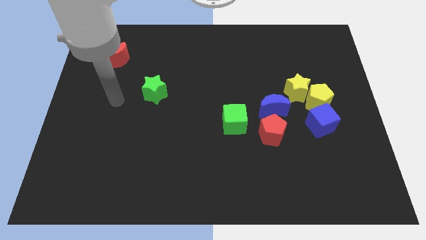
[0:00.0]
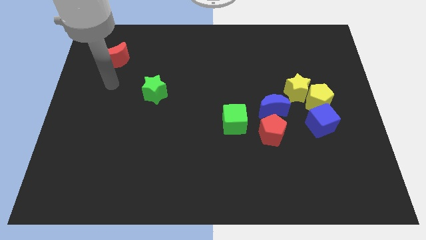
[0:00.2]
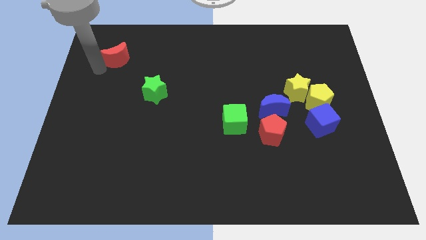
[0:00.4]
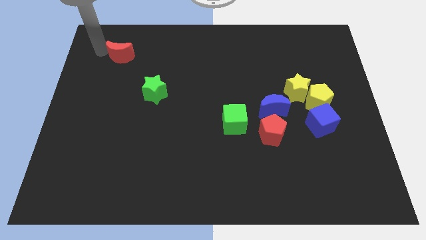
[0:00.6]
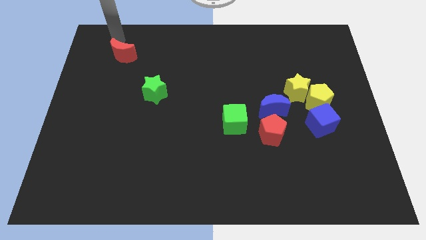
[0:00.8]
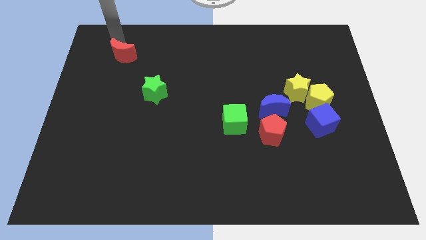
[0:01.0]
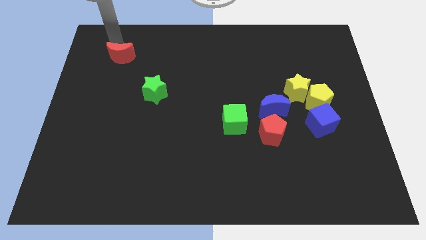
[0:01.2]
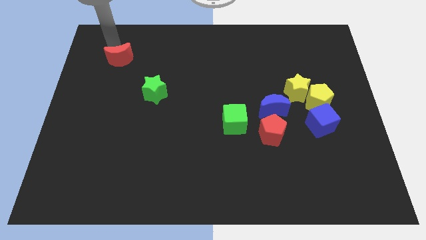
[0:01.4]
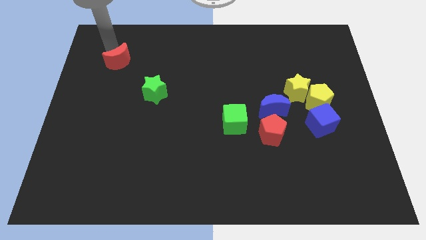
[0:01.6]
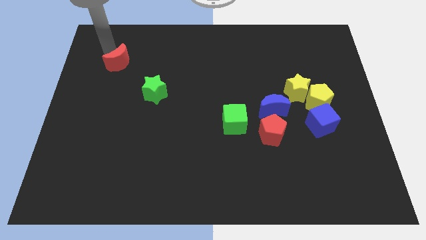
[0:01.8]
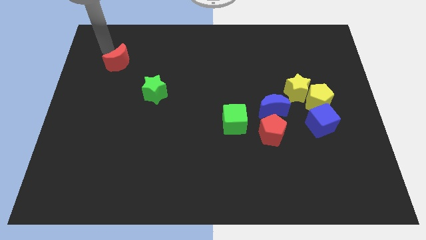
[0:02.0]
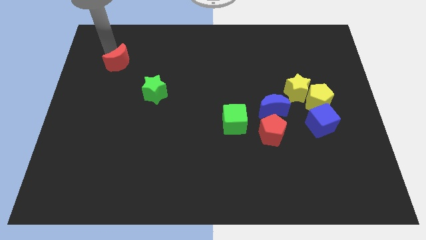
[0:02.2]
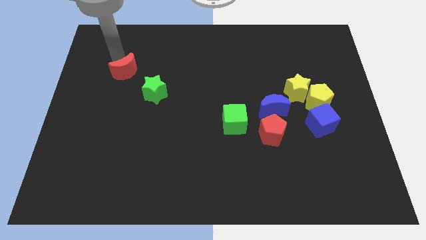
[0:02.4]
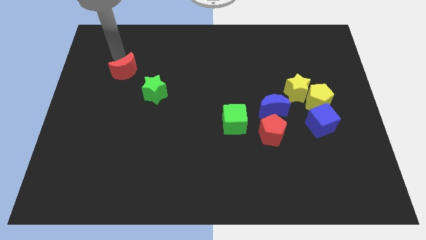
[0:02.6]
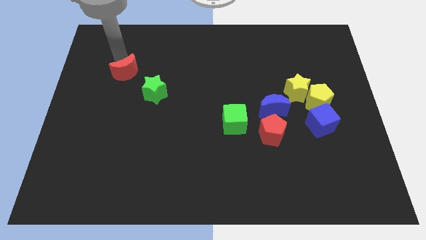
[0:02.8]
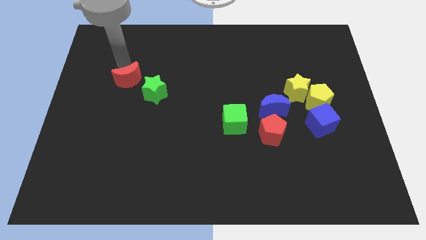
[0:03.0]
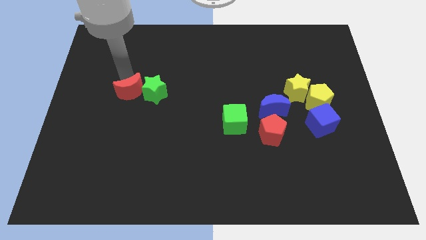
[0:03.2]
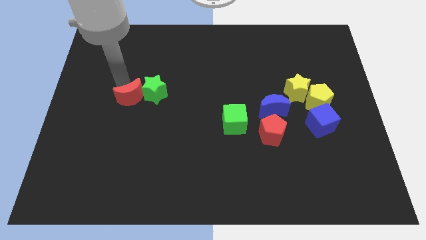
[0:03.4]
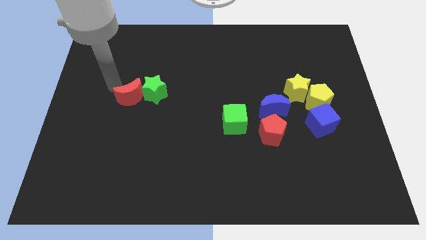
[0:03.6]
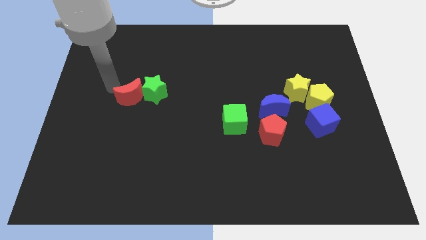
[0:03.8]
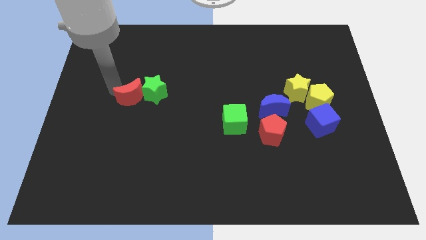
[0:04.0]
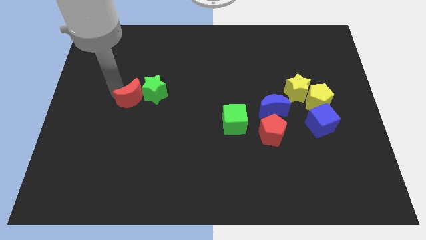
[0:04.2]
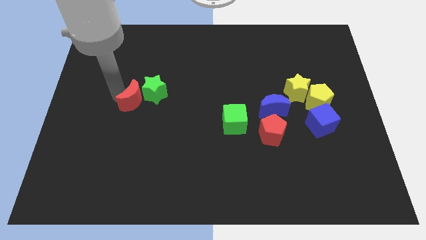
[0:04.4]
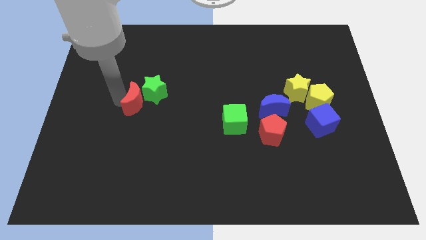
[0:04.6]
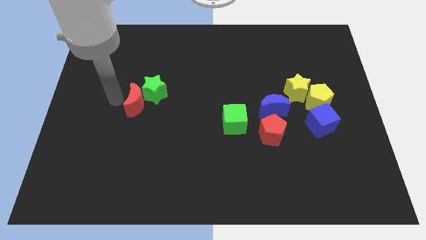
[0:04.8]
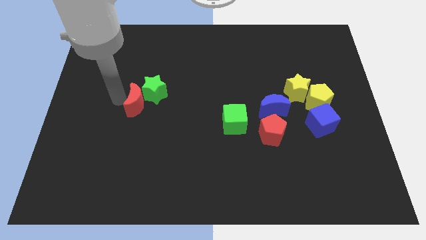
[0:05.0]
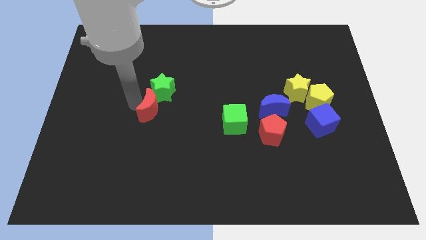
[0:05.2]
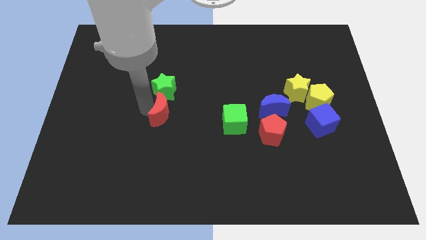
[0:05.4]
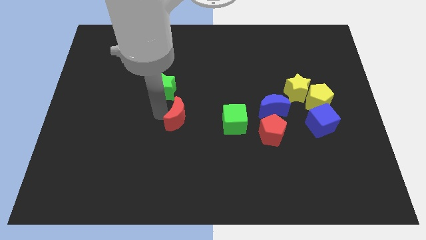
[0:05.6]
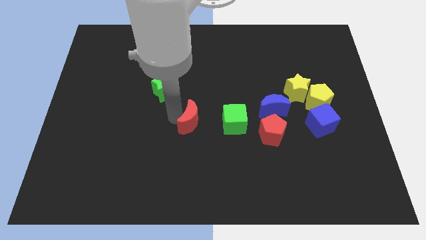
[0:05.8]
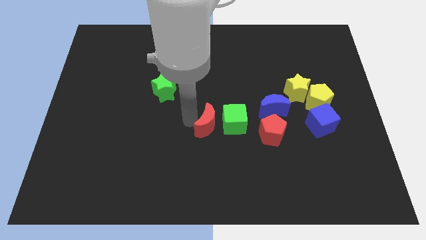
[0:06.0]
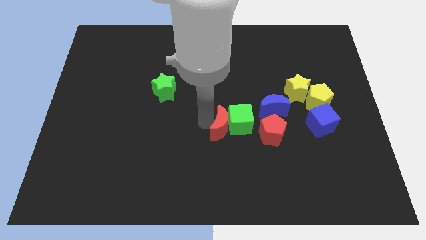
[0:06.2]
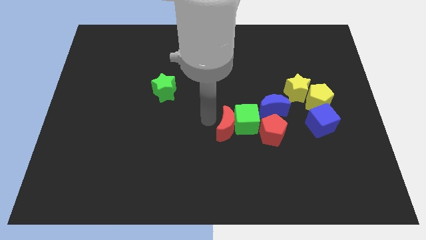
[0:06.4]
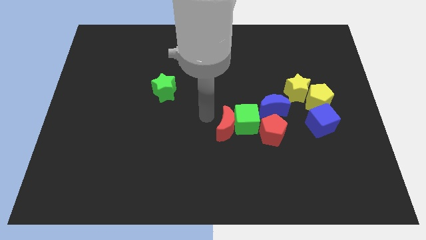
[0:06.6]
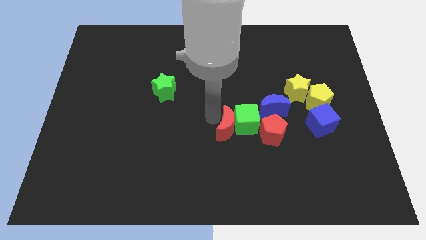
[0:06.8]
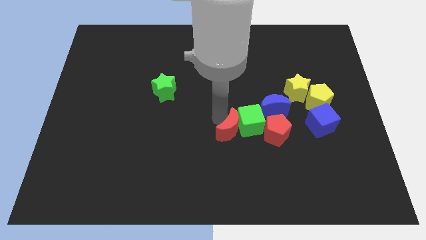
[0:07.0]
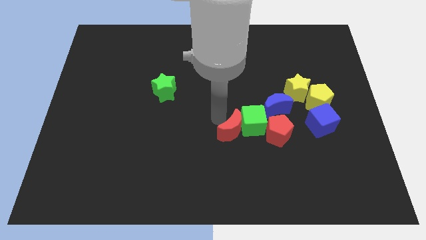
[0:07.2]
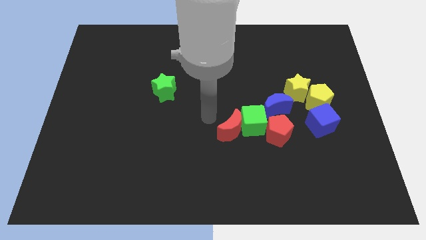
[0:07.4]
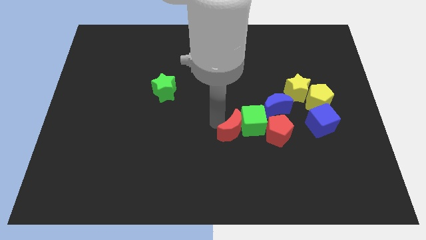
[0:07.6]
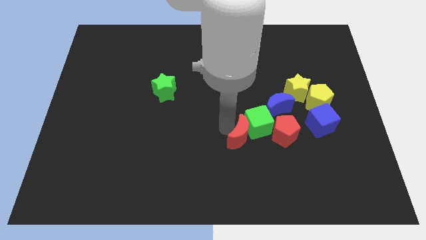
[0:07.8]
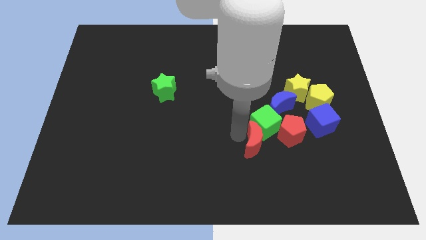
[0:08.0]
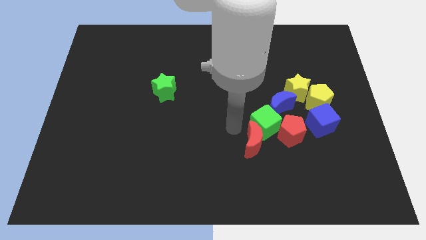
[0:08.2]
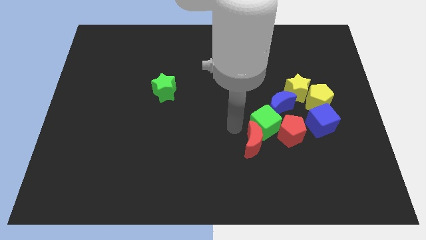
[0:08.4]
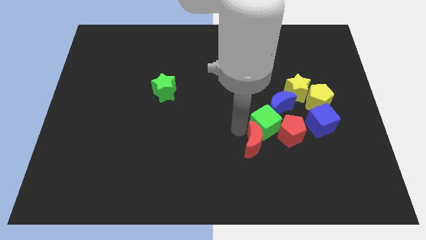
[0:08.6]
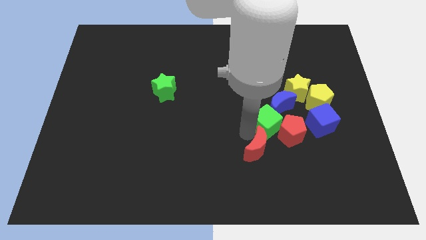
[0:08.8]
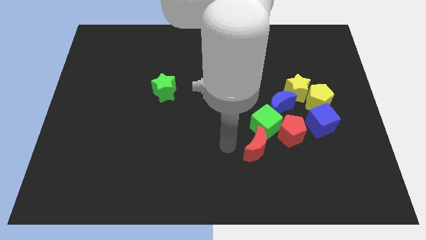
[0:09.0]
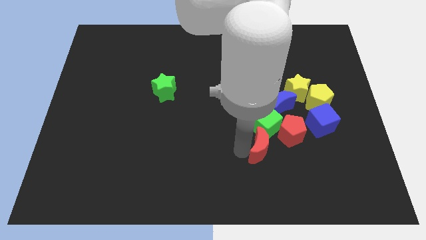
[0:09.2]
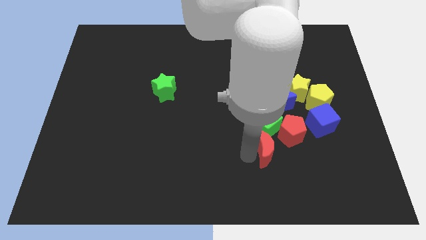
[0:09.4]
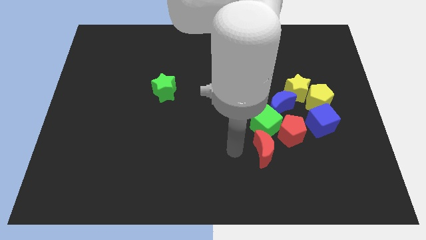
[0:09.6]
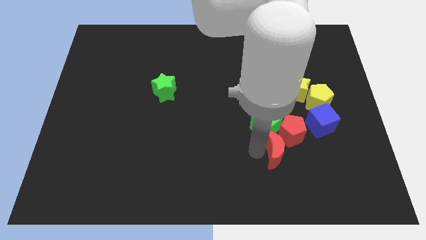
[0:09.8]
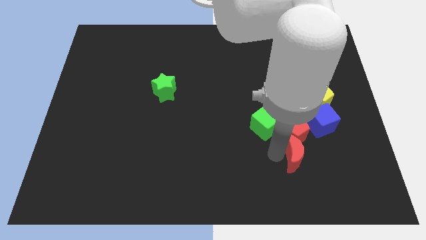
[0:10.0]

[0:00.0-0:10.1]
put the red moon diagonally down and to the right of the red pentagon

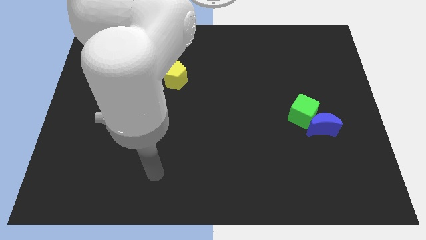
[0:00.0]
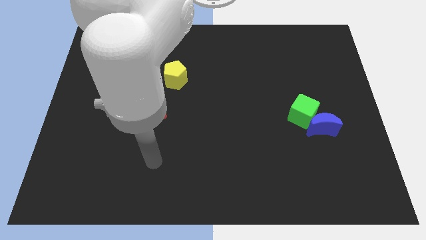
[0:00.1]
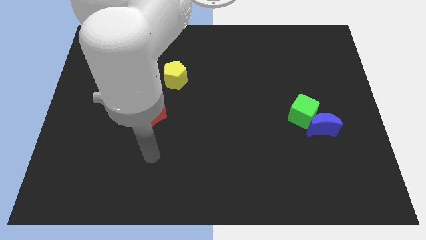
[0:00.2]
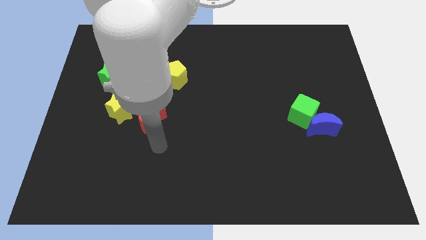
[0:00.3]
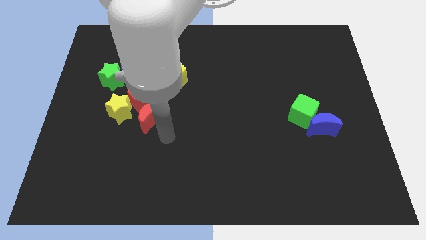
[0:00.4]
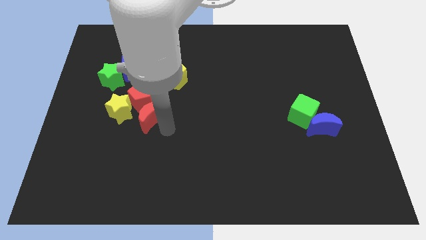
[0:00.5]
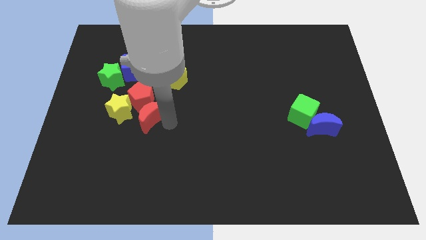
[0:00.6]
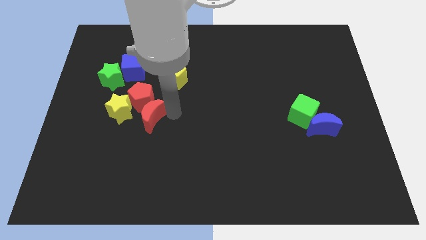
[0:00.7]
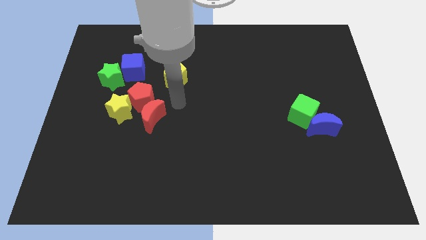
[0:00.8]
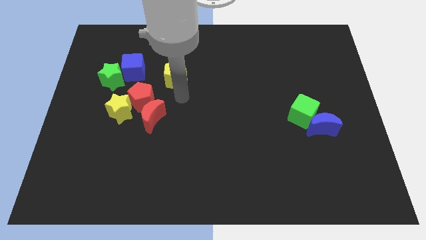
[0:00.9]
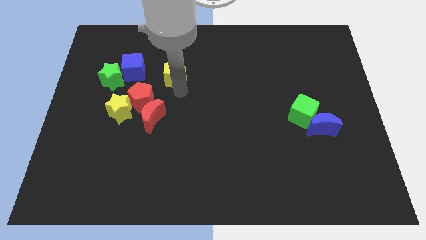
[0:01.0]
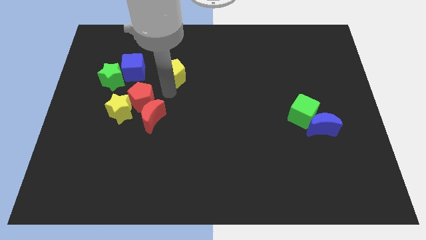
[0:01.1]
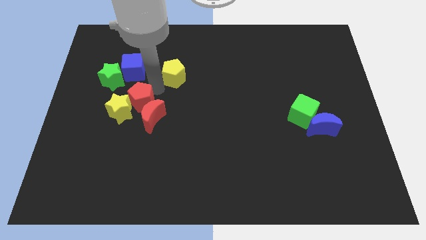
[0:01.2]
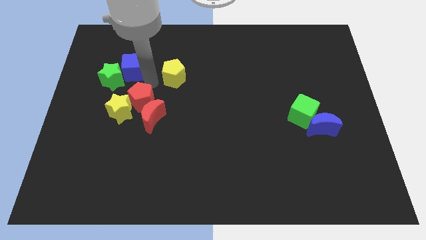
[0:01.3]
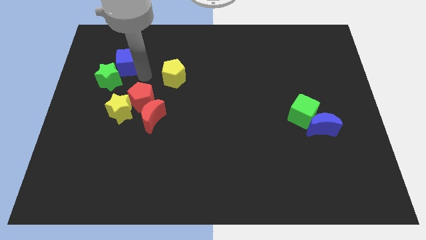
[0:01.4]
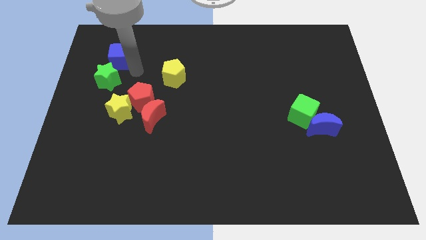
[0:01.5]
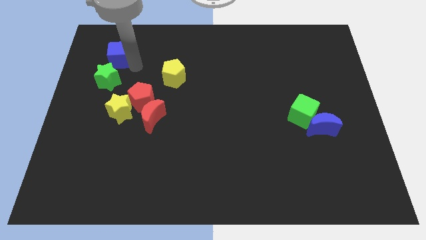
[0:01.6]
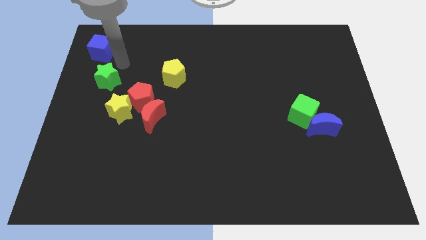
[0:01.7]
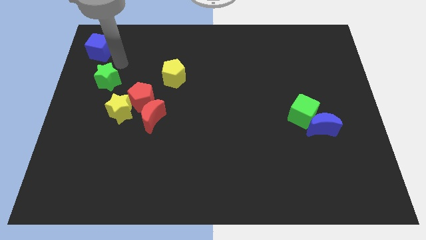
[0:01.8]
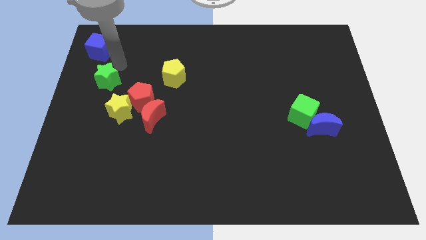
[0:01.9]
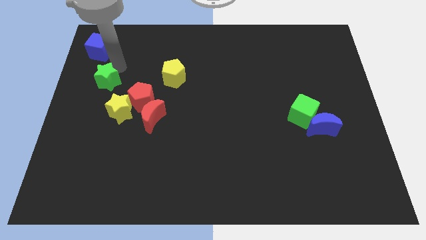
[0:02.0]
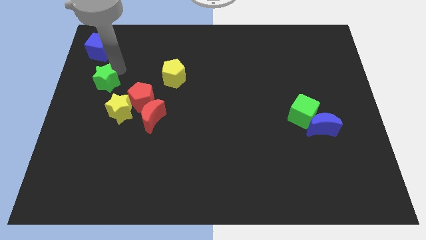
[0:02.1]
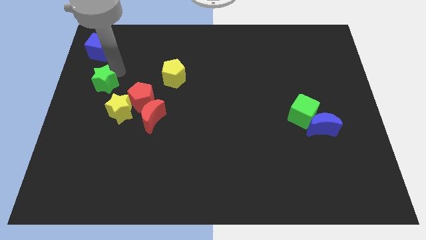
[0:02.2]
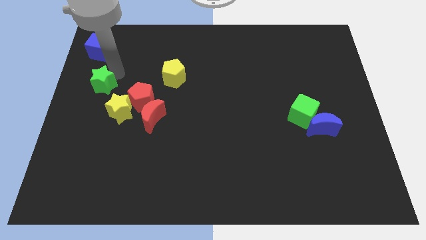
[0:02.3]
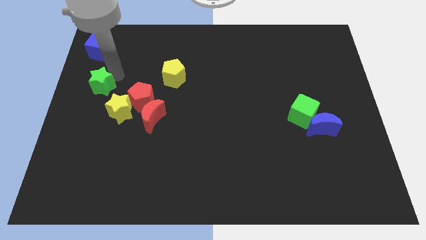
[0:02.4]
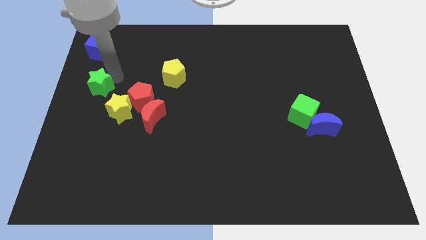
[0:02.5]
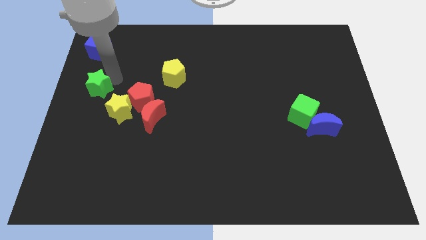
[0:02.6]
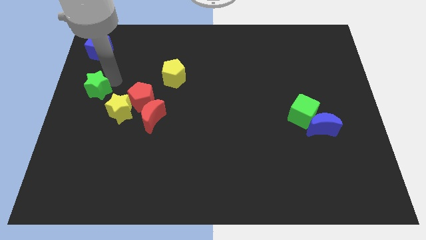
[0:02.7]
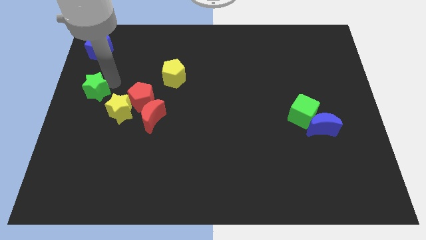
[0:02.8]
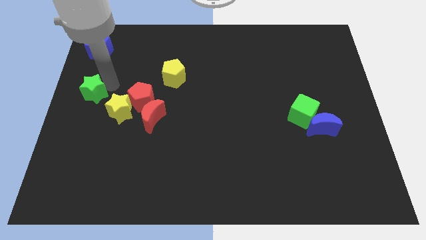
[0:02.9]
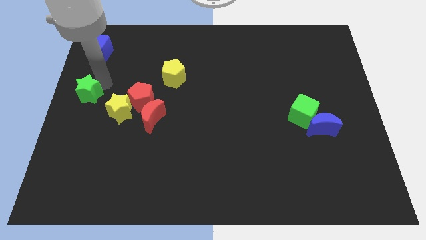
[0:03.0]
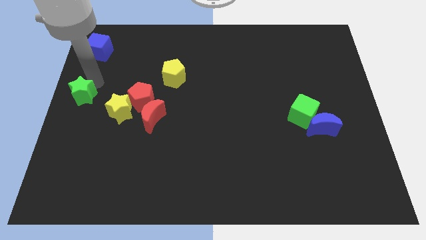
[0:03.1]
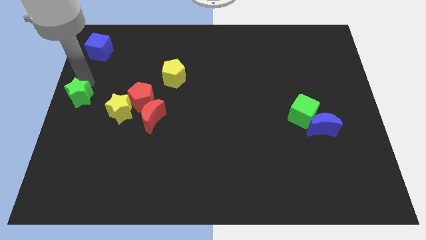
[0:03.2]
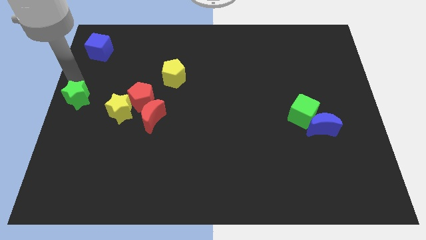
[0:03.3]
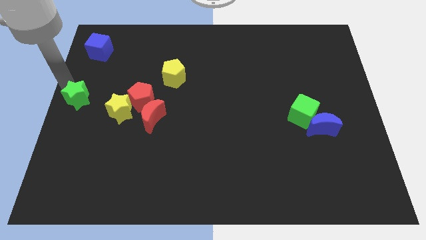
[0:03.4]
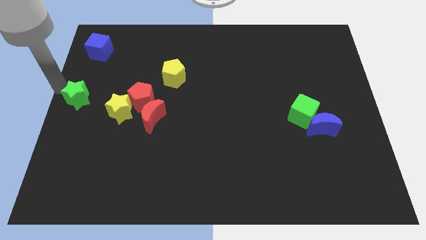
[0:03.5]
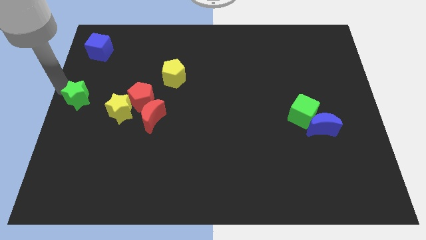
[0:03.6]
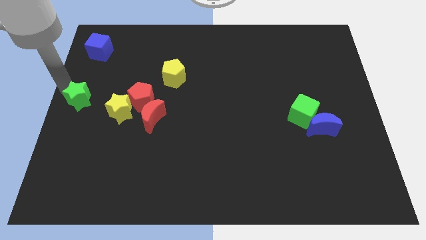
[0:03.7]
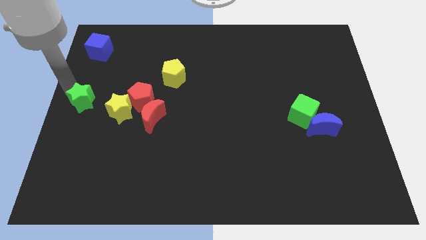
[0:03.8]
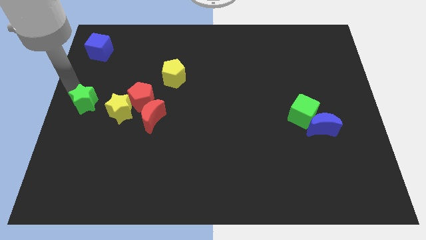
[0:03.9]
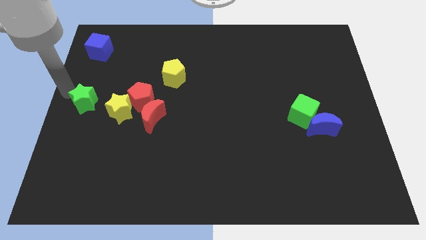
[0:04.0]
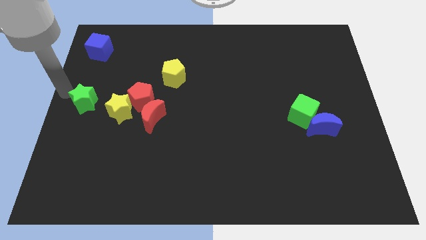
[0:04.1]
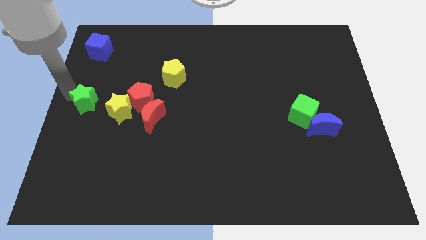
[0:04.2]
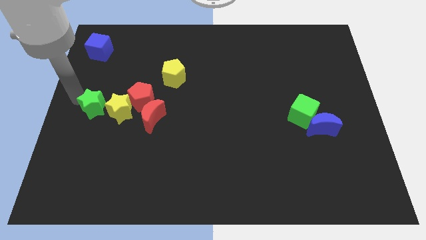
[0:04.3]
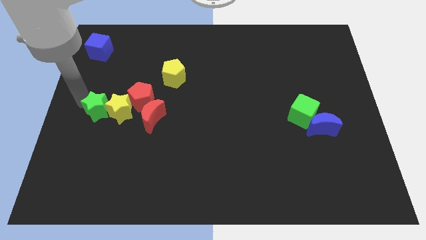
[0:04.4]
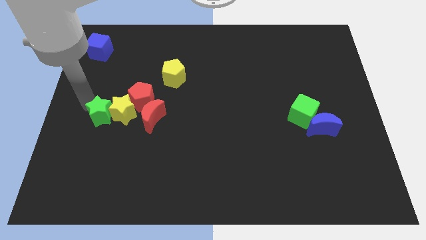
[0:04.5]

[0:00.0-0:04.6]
slide the green star to the bottom left of the red pentagon
